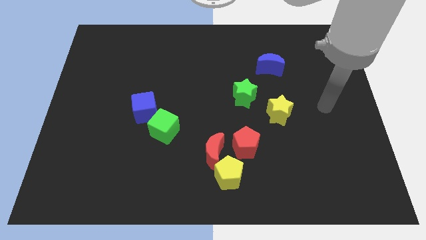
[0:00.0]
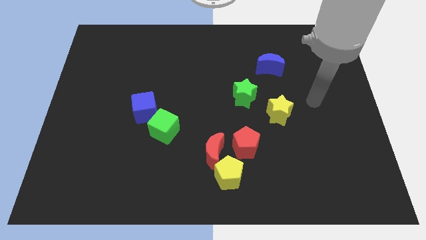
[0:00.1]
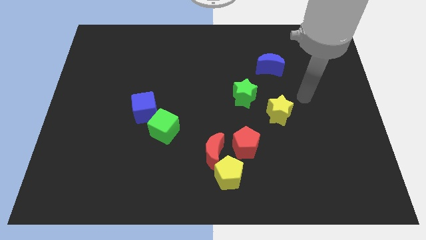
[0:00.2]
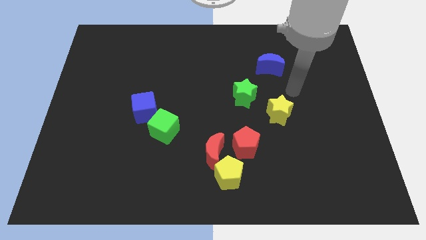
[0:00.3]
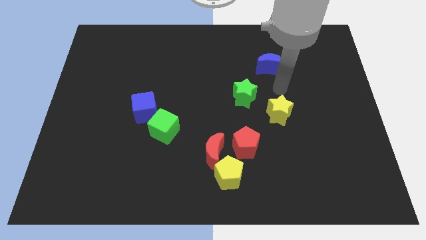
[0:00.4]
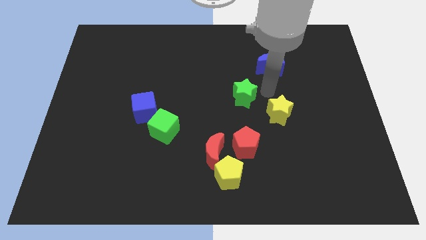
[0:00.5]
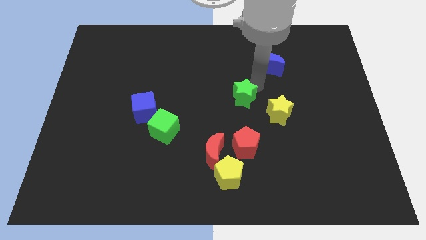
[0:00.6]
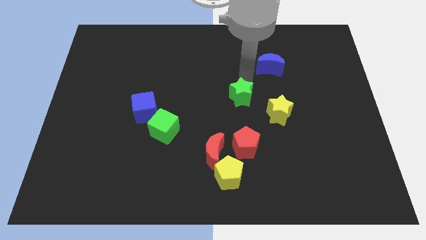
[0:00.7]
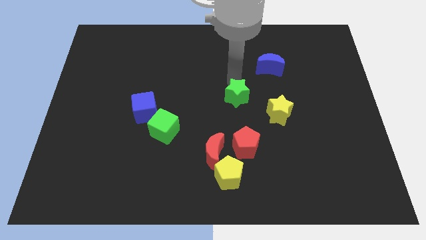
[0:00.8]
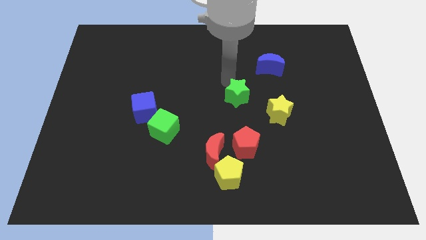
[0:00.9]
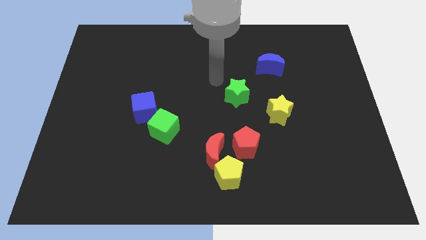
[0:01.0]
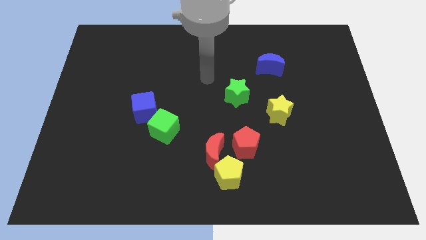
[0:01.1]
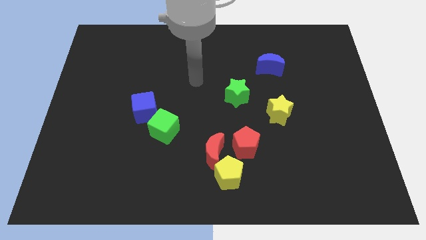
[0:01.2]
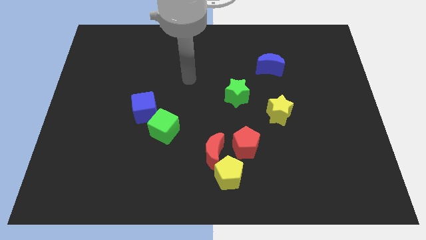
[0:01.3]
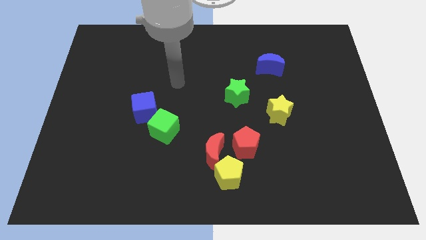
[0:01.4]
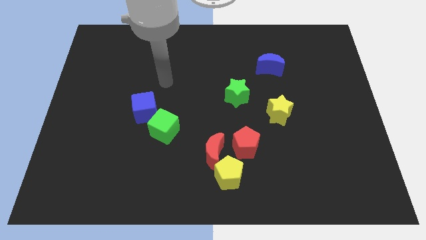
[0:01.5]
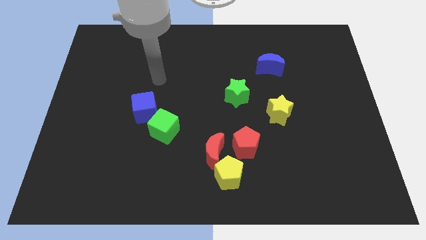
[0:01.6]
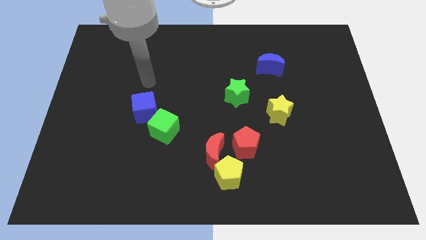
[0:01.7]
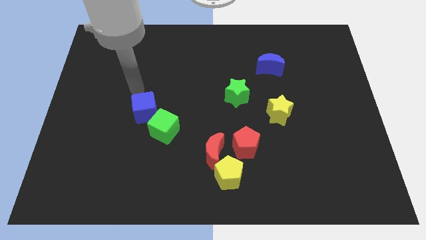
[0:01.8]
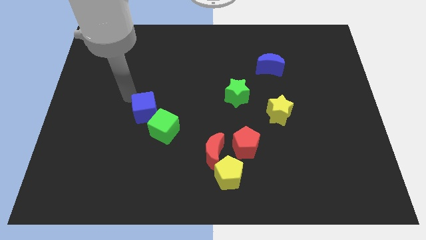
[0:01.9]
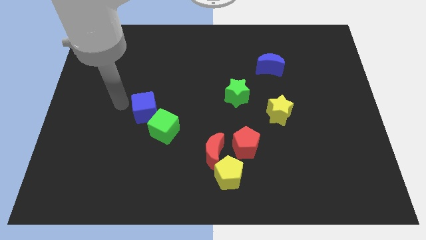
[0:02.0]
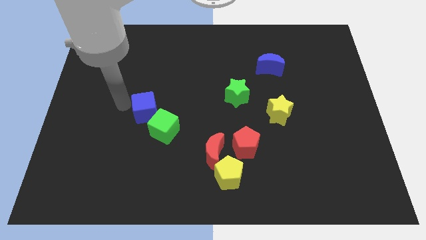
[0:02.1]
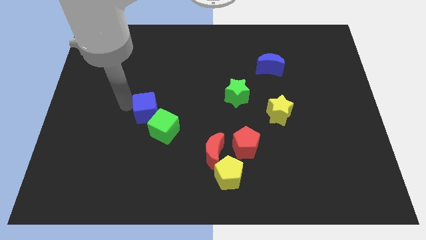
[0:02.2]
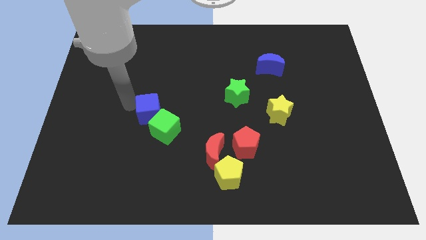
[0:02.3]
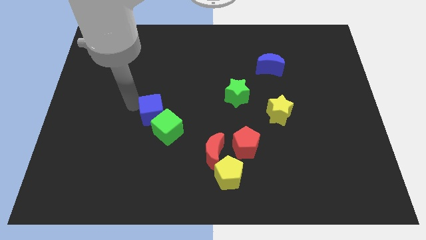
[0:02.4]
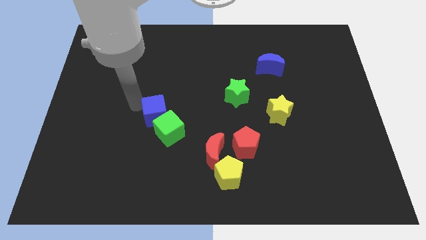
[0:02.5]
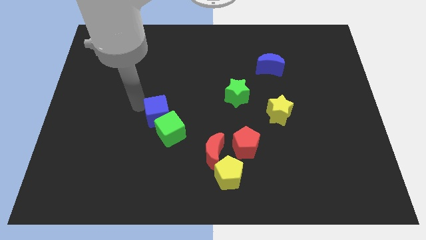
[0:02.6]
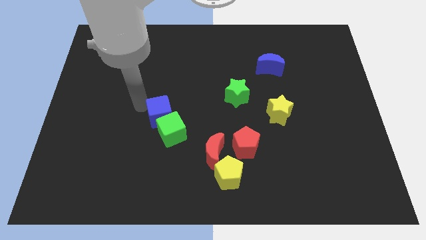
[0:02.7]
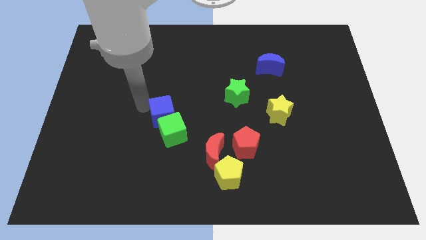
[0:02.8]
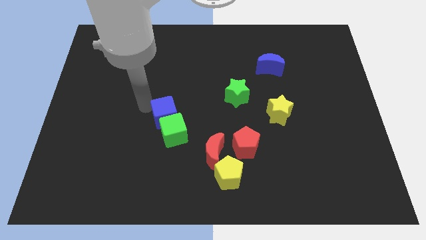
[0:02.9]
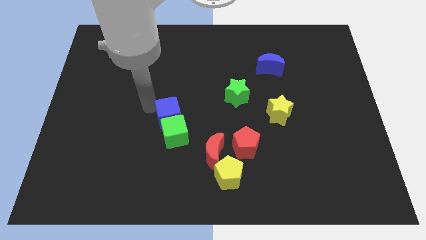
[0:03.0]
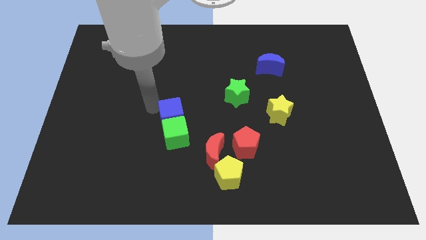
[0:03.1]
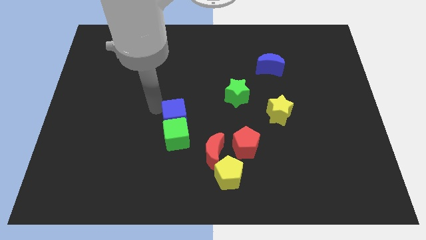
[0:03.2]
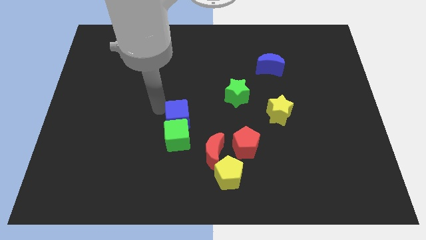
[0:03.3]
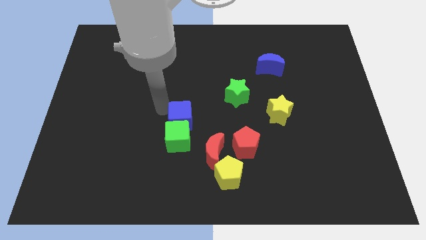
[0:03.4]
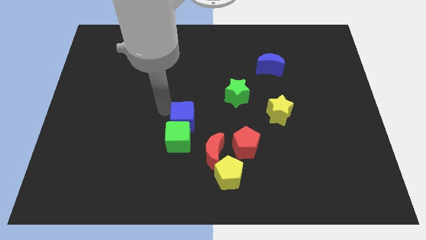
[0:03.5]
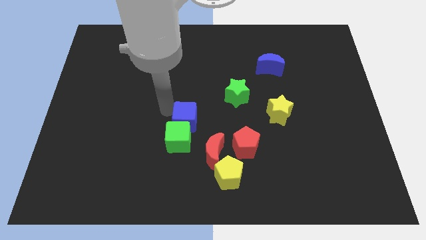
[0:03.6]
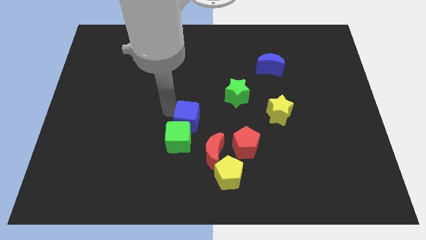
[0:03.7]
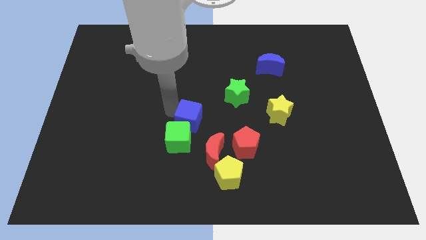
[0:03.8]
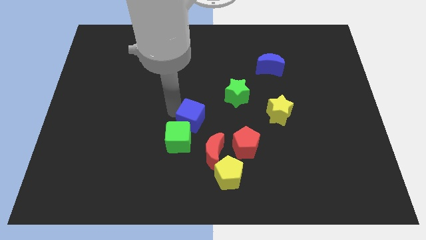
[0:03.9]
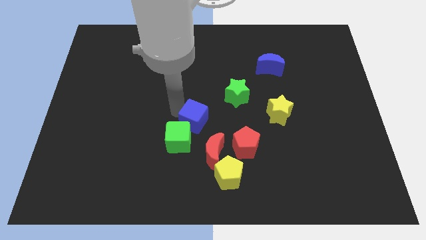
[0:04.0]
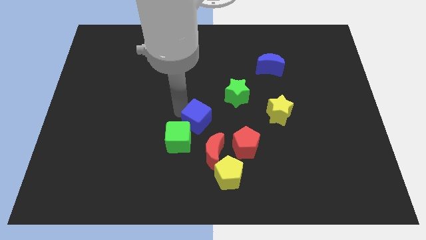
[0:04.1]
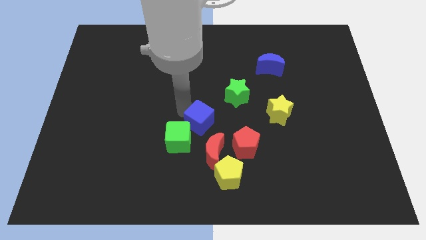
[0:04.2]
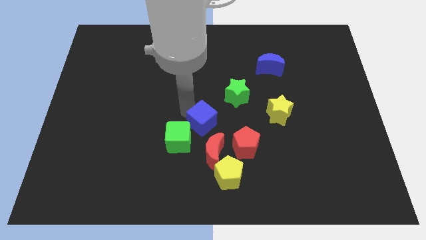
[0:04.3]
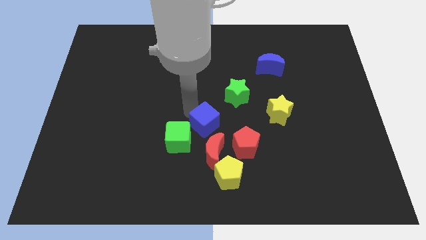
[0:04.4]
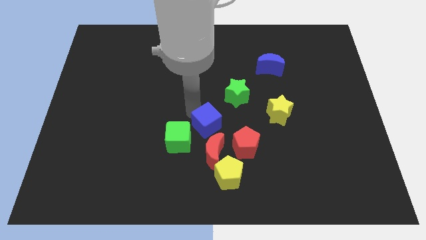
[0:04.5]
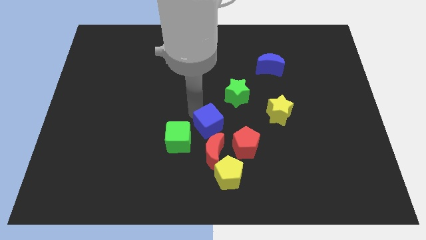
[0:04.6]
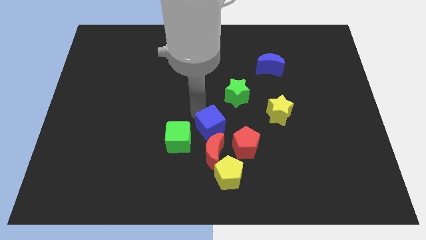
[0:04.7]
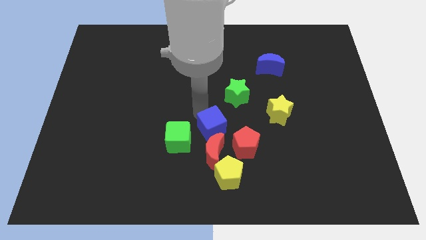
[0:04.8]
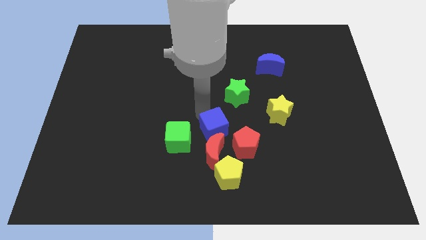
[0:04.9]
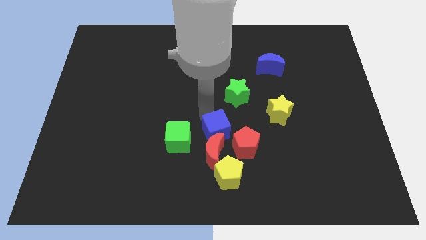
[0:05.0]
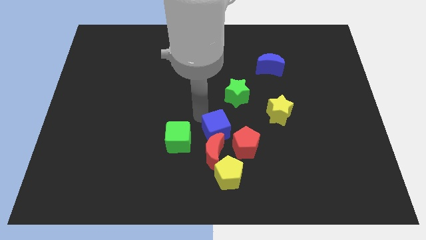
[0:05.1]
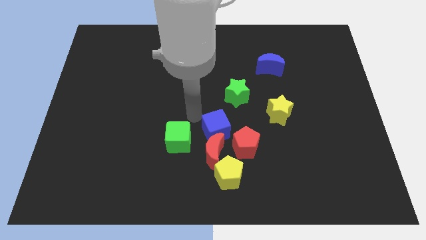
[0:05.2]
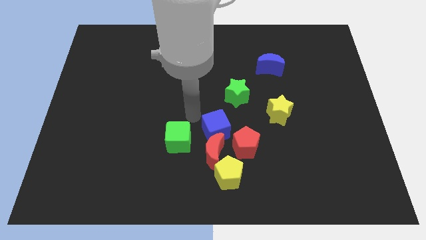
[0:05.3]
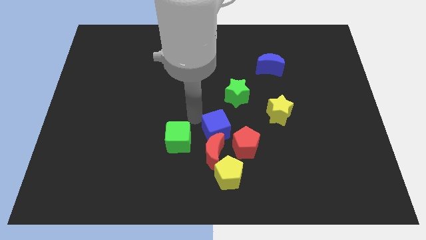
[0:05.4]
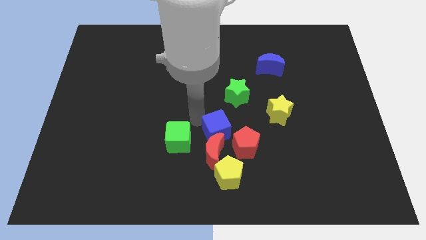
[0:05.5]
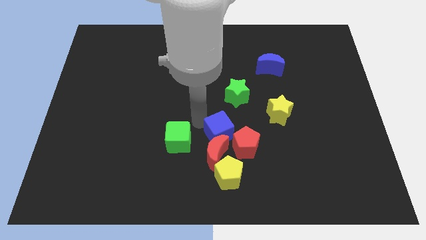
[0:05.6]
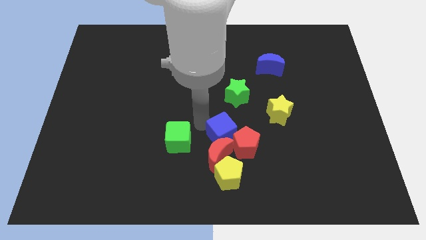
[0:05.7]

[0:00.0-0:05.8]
move the blue cube to the red pentagon

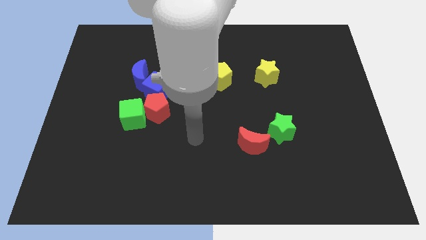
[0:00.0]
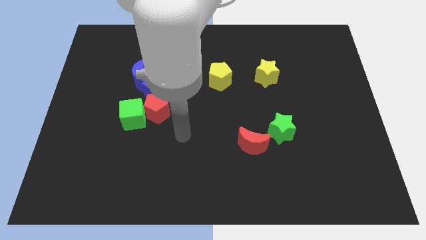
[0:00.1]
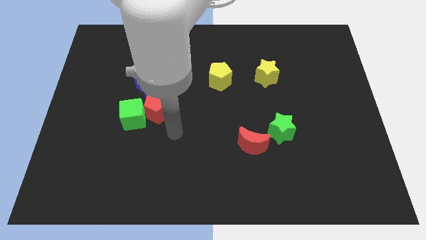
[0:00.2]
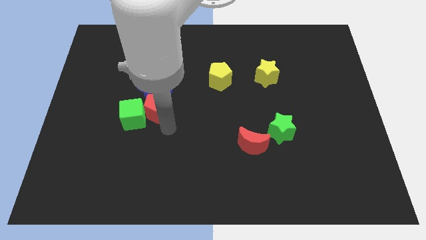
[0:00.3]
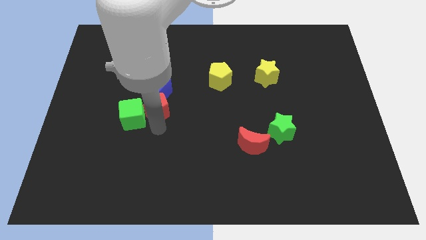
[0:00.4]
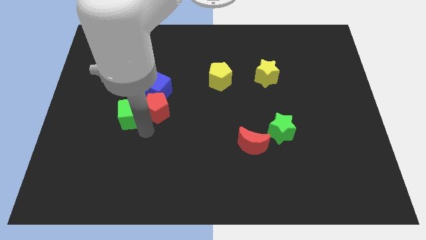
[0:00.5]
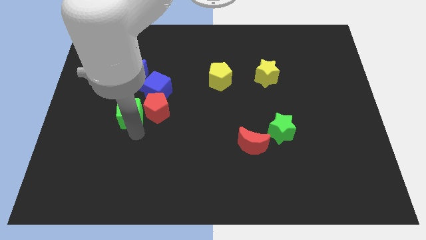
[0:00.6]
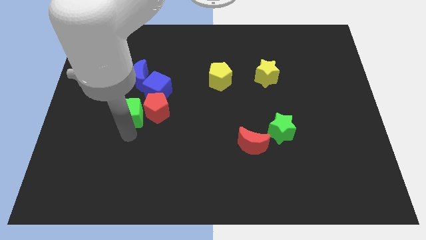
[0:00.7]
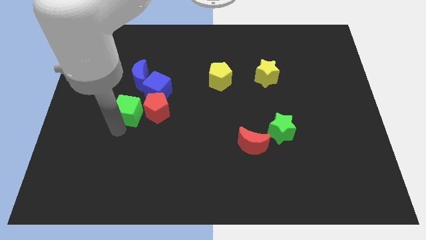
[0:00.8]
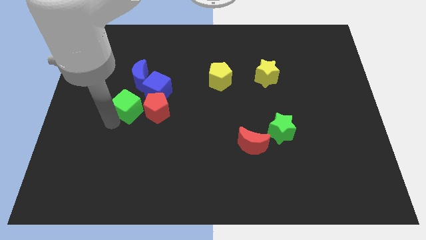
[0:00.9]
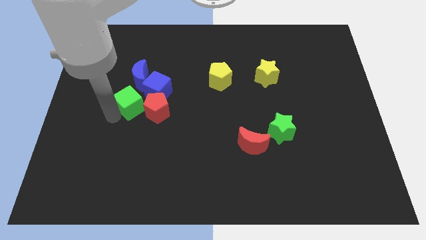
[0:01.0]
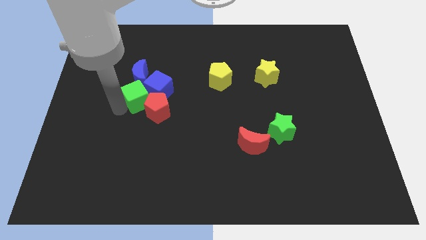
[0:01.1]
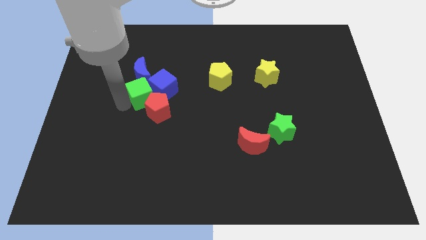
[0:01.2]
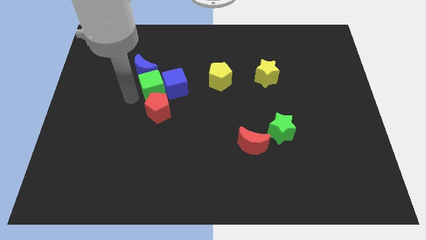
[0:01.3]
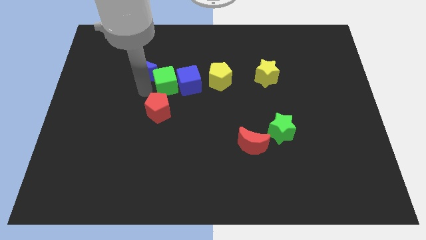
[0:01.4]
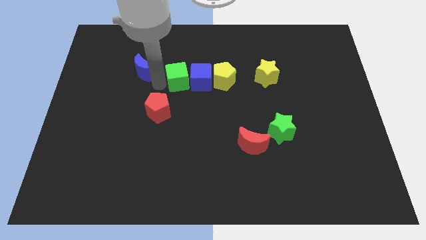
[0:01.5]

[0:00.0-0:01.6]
slide the blue cube next to the yellow pentagon
